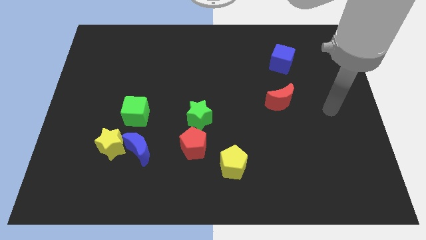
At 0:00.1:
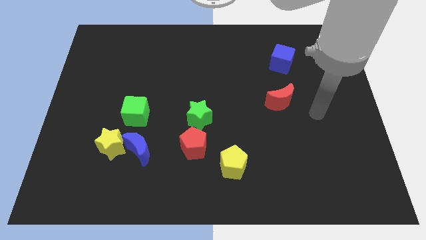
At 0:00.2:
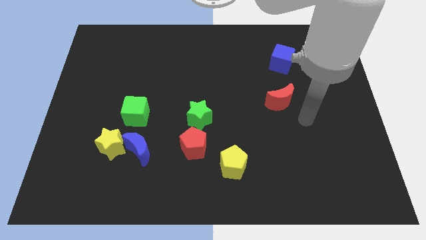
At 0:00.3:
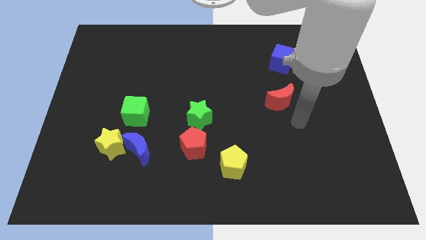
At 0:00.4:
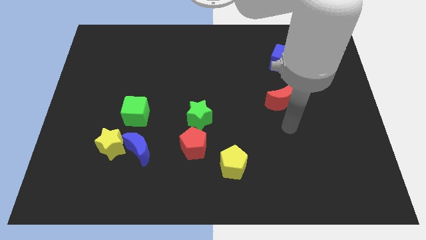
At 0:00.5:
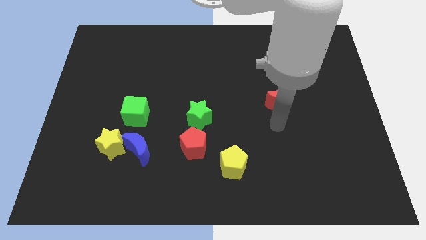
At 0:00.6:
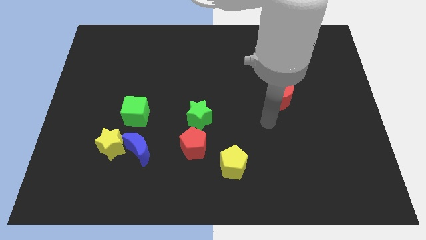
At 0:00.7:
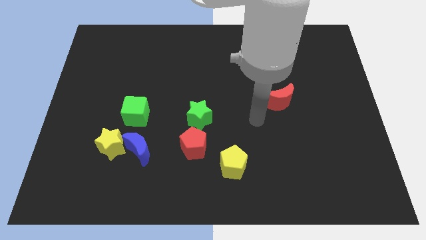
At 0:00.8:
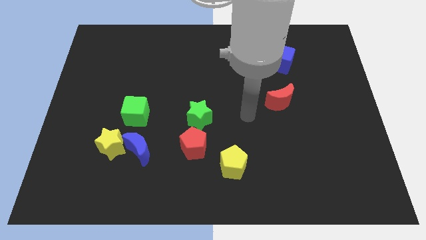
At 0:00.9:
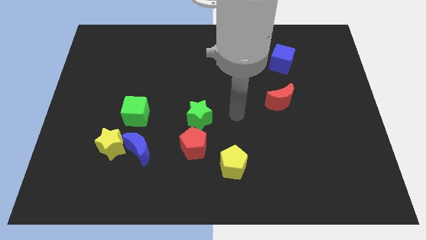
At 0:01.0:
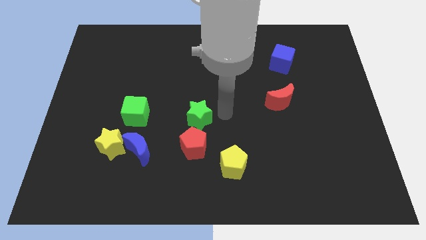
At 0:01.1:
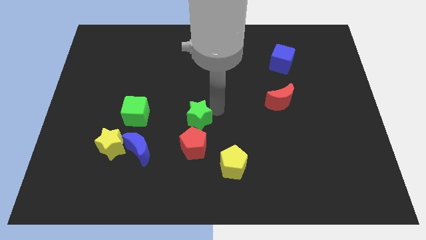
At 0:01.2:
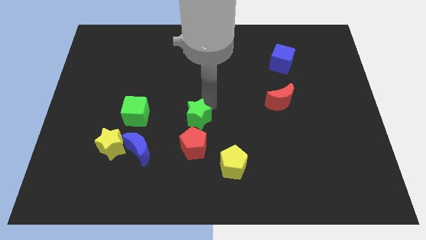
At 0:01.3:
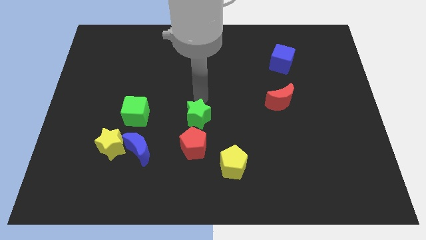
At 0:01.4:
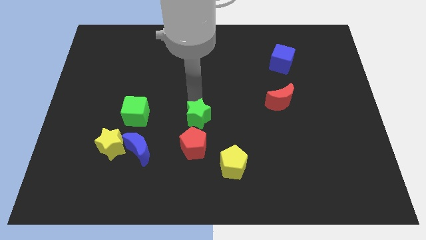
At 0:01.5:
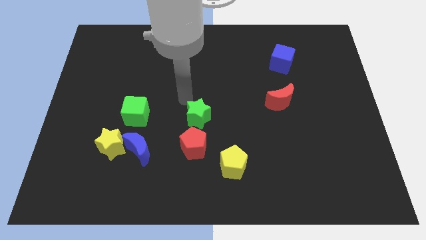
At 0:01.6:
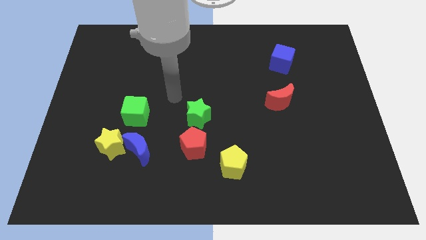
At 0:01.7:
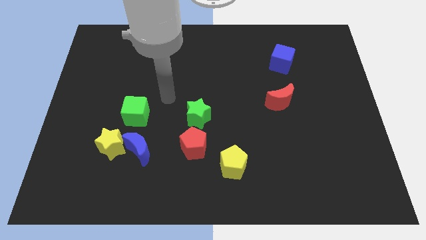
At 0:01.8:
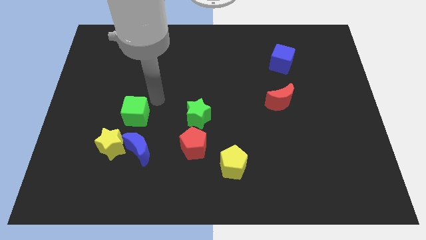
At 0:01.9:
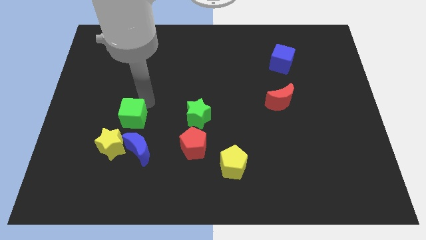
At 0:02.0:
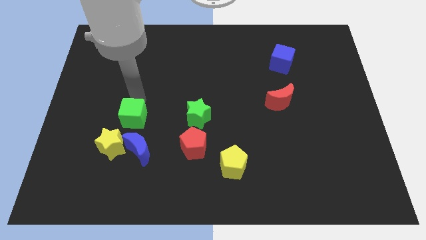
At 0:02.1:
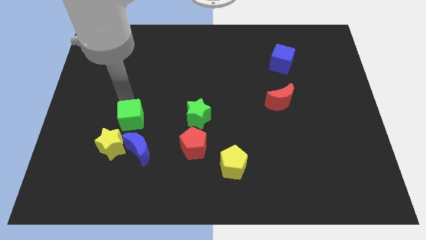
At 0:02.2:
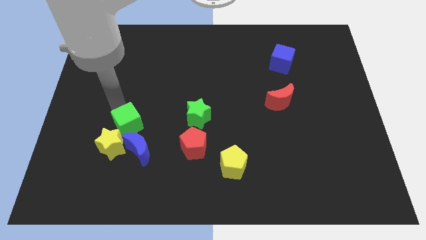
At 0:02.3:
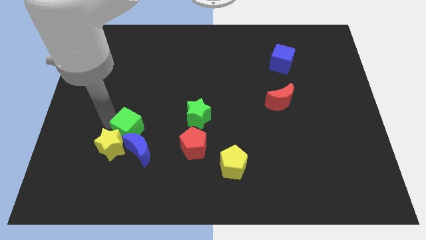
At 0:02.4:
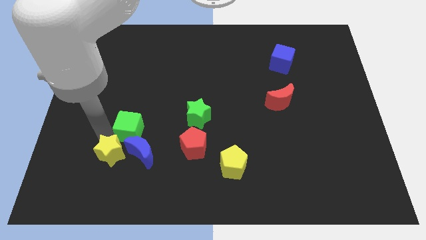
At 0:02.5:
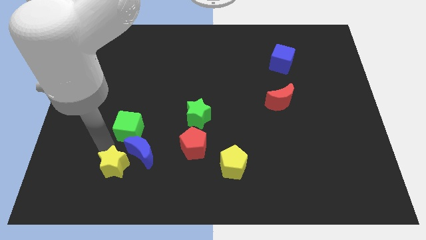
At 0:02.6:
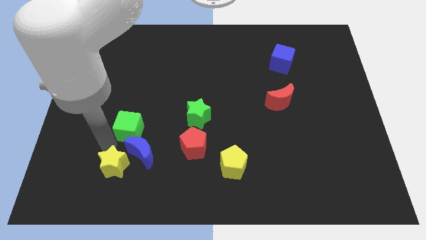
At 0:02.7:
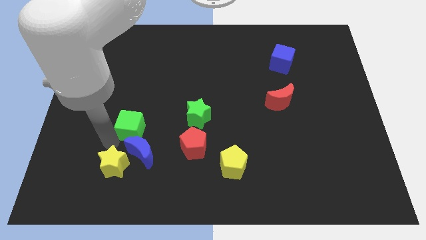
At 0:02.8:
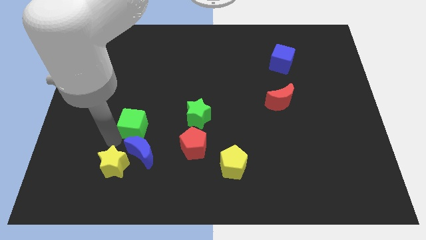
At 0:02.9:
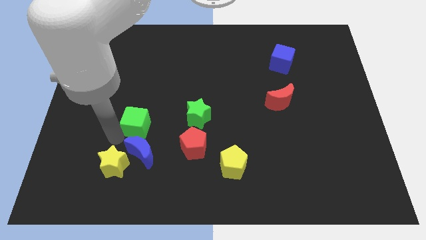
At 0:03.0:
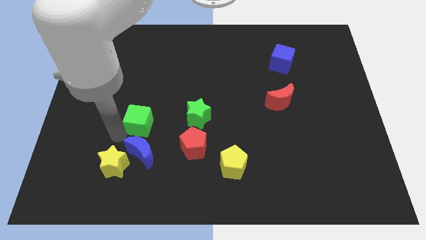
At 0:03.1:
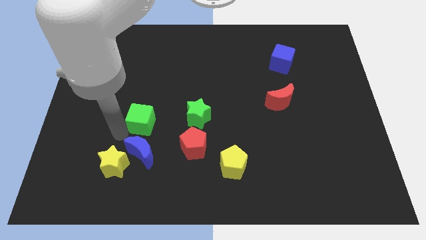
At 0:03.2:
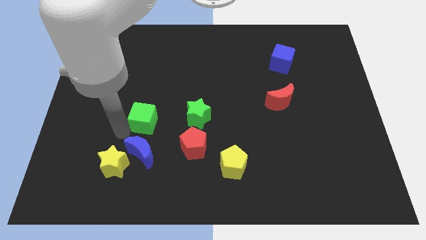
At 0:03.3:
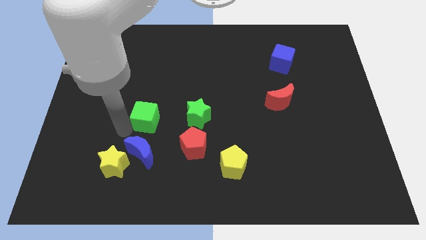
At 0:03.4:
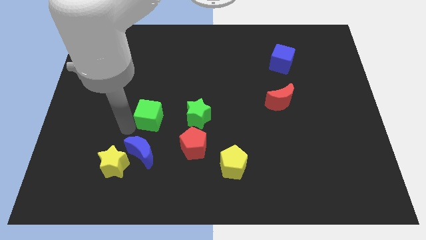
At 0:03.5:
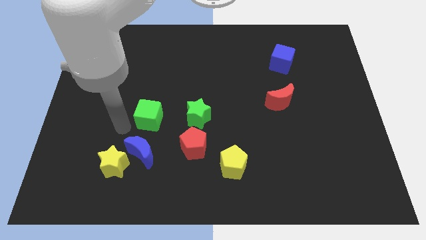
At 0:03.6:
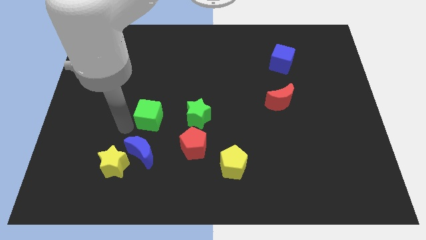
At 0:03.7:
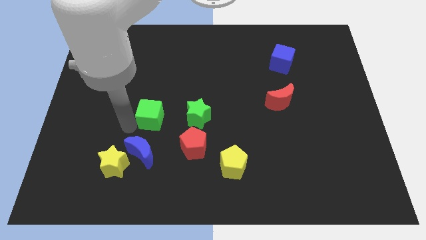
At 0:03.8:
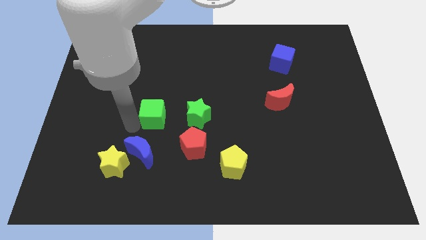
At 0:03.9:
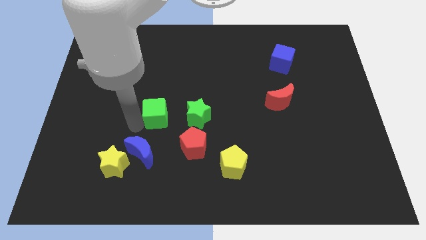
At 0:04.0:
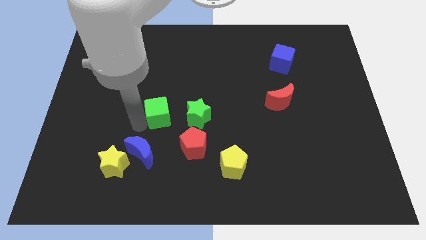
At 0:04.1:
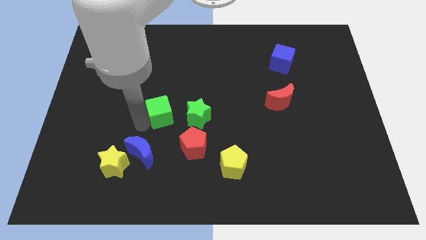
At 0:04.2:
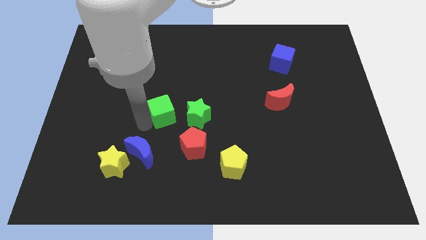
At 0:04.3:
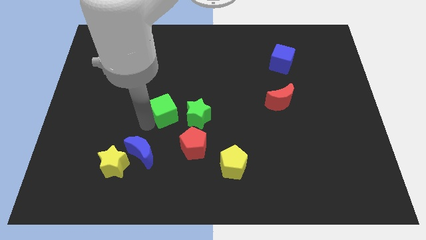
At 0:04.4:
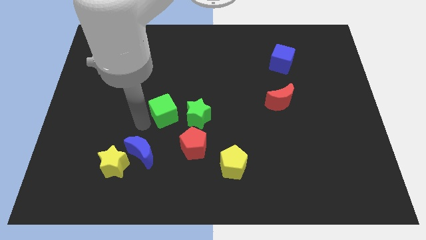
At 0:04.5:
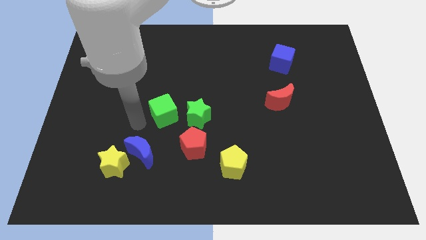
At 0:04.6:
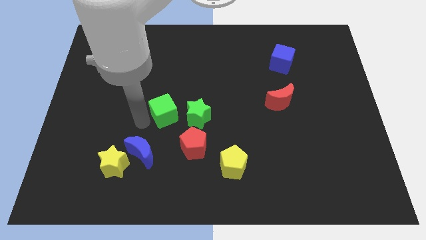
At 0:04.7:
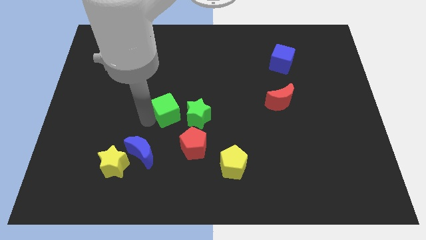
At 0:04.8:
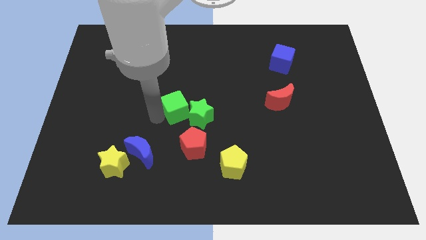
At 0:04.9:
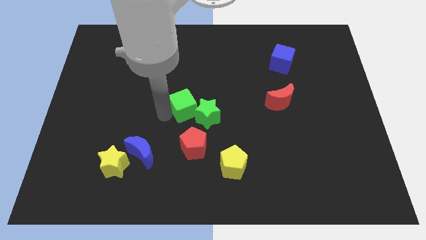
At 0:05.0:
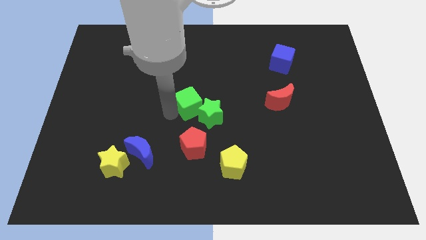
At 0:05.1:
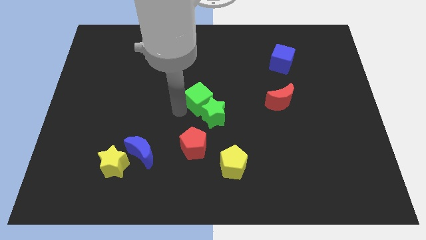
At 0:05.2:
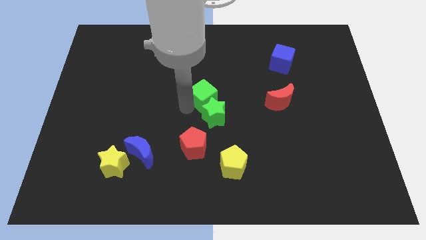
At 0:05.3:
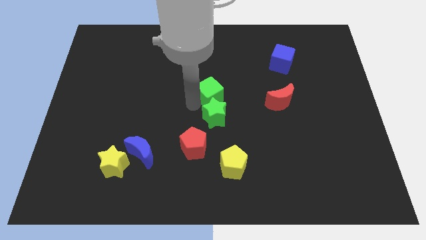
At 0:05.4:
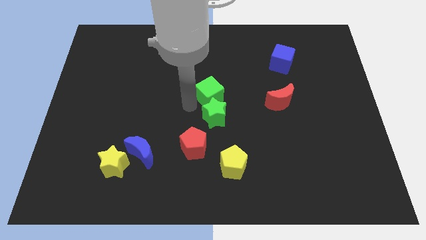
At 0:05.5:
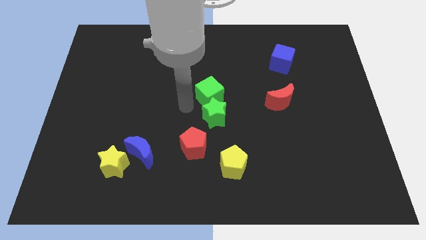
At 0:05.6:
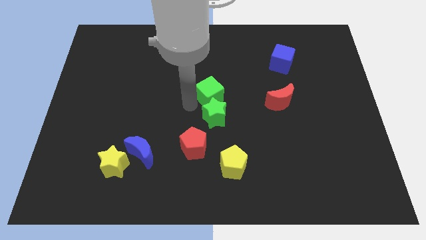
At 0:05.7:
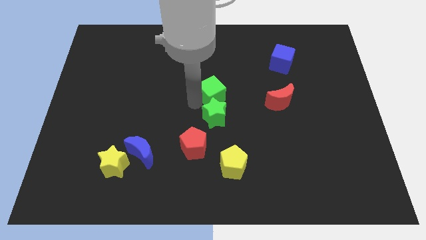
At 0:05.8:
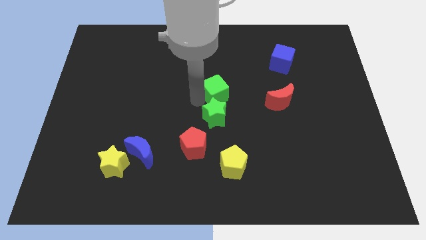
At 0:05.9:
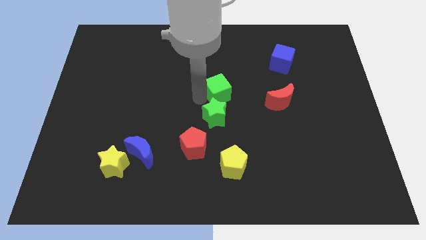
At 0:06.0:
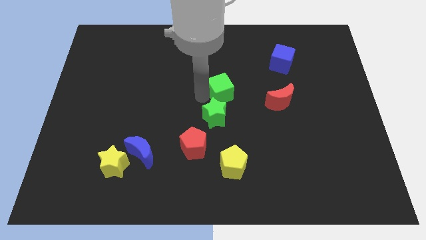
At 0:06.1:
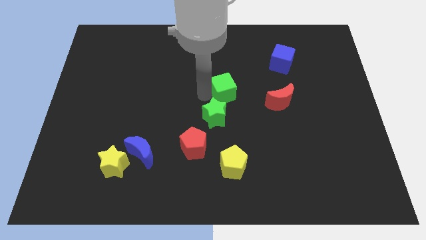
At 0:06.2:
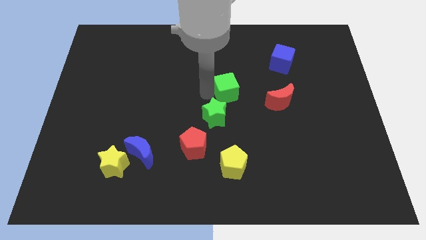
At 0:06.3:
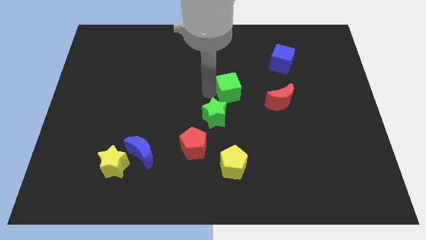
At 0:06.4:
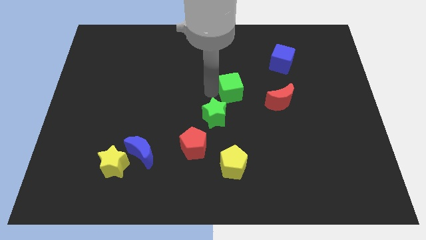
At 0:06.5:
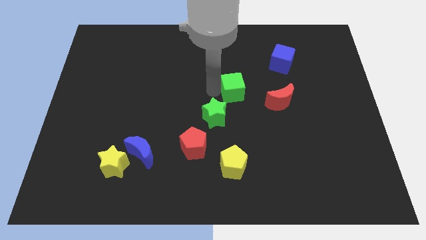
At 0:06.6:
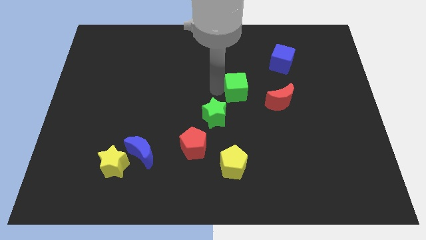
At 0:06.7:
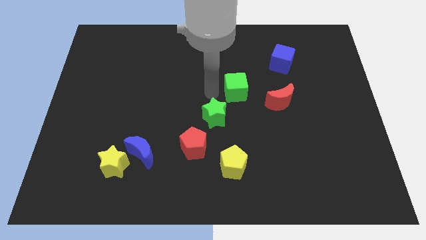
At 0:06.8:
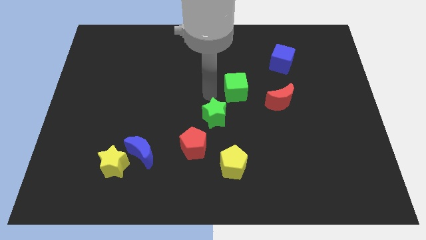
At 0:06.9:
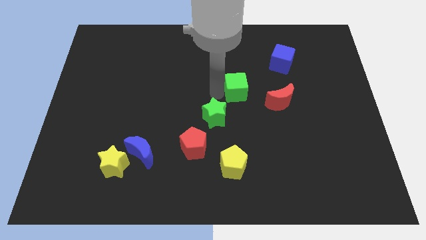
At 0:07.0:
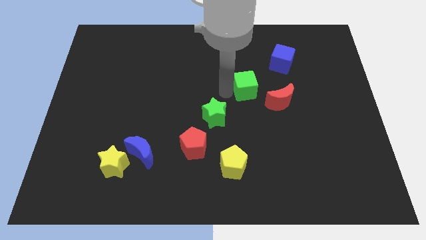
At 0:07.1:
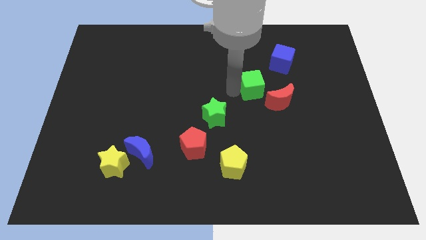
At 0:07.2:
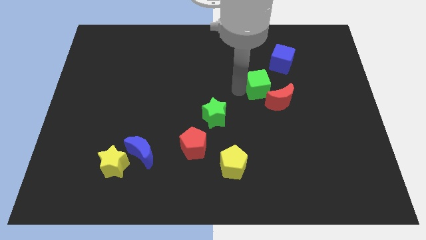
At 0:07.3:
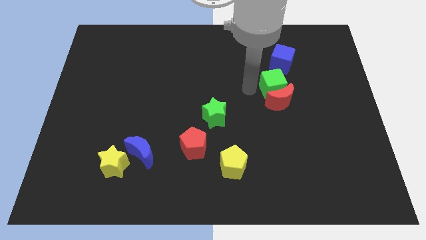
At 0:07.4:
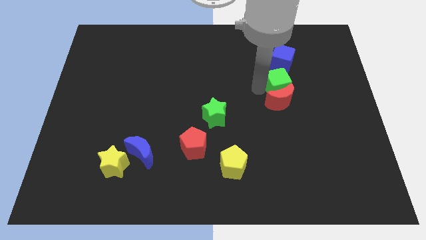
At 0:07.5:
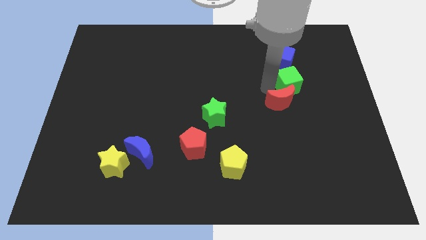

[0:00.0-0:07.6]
push the green cube to the bottom right side of the blue cube

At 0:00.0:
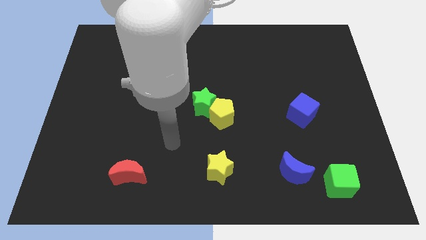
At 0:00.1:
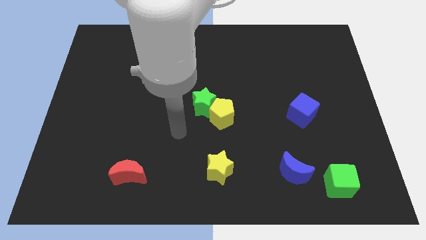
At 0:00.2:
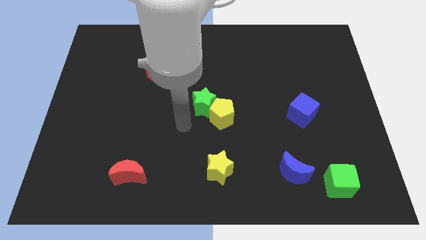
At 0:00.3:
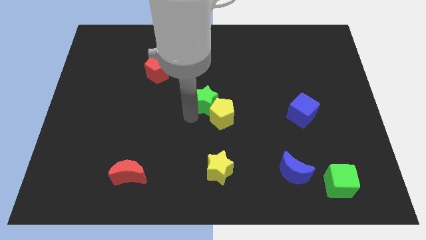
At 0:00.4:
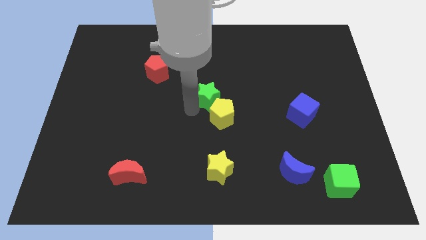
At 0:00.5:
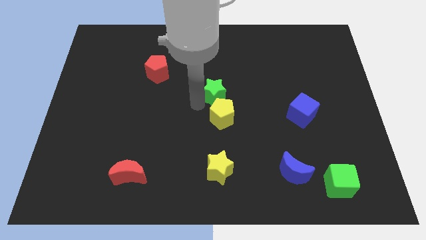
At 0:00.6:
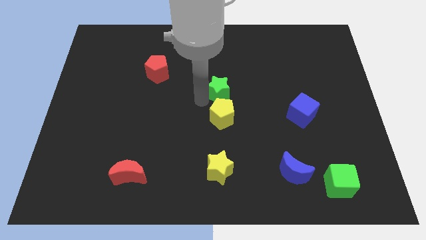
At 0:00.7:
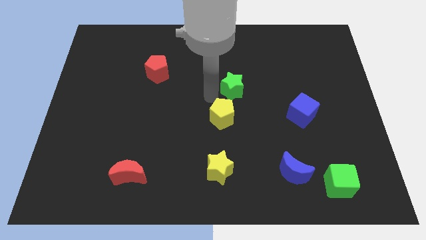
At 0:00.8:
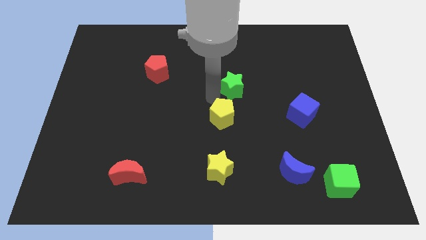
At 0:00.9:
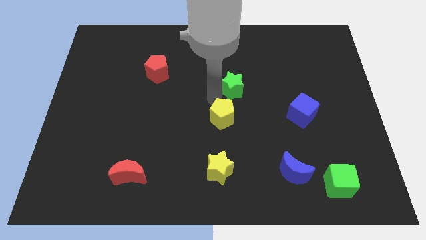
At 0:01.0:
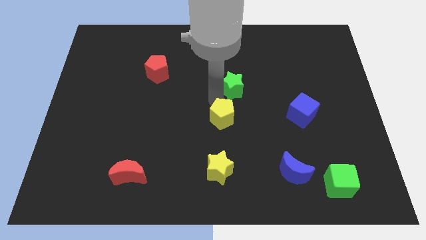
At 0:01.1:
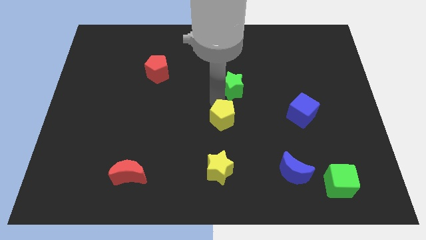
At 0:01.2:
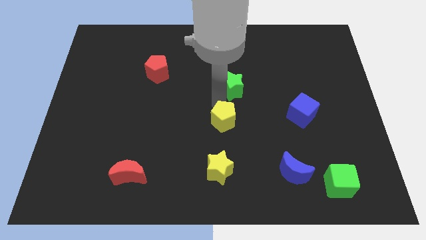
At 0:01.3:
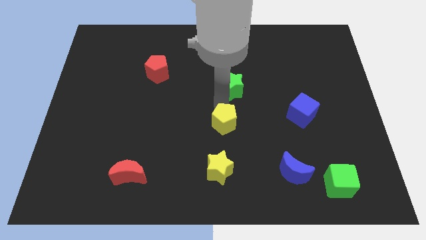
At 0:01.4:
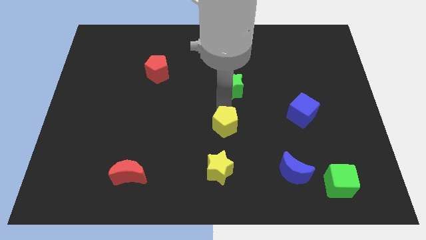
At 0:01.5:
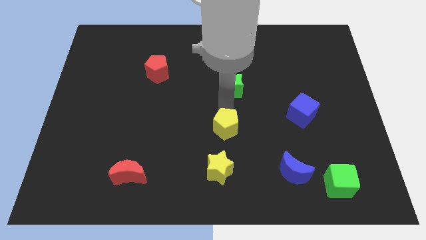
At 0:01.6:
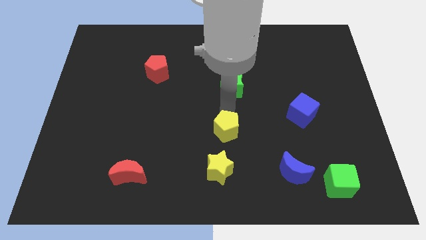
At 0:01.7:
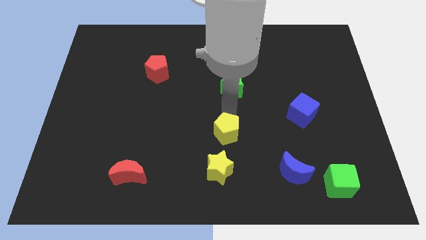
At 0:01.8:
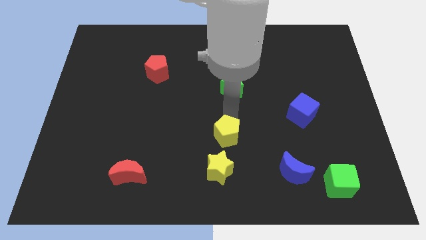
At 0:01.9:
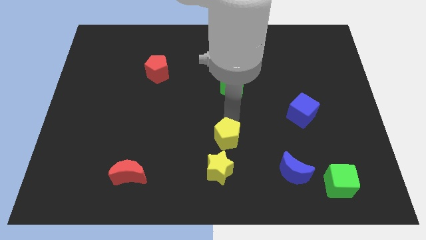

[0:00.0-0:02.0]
push the yellow pentagon to the top right side of the yellow star
